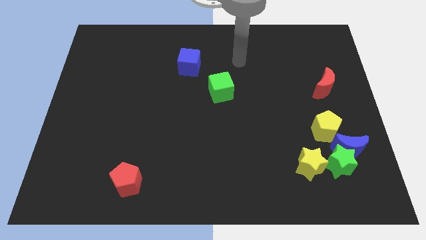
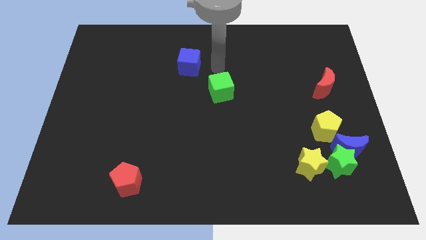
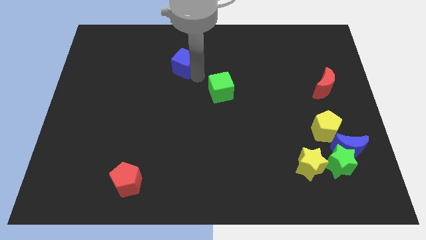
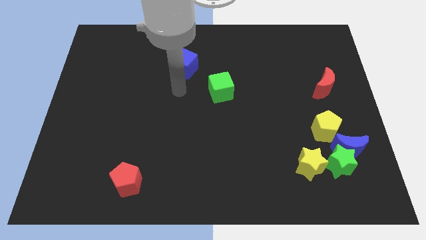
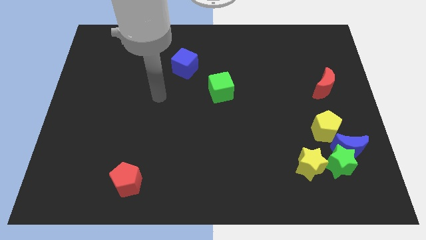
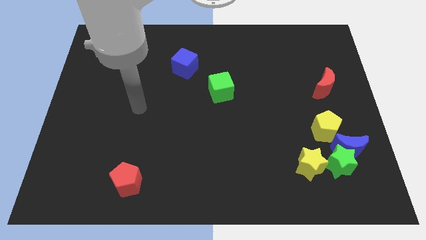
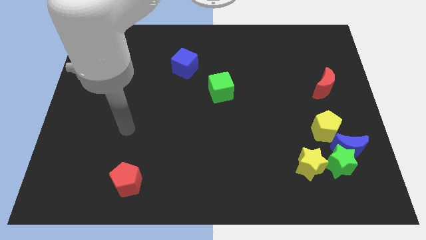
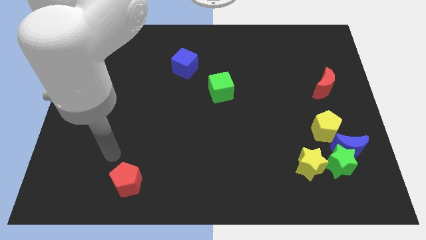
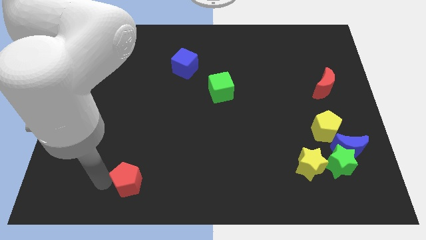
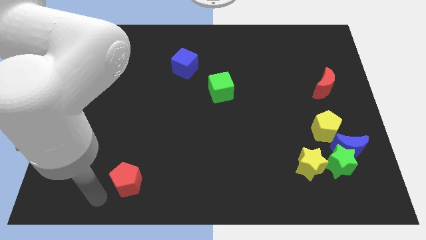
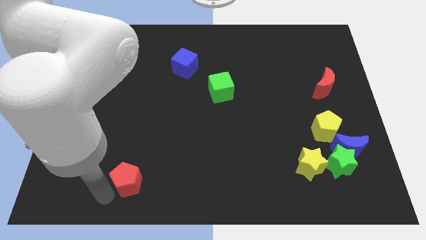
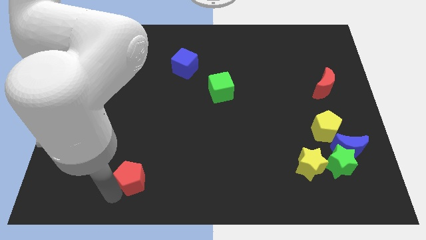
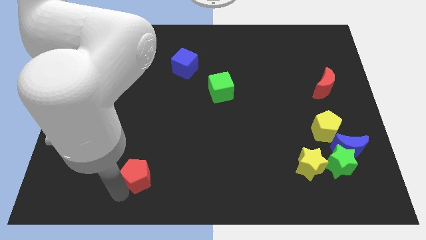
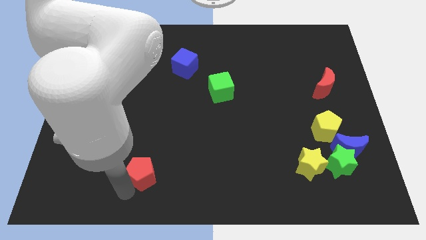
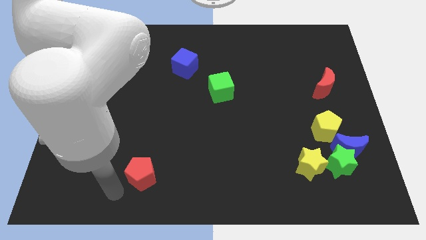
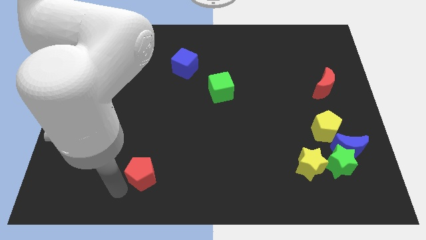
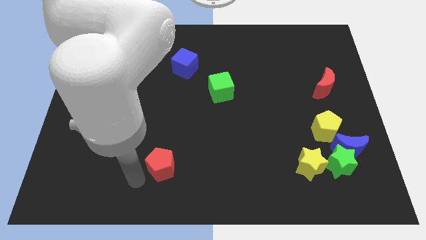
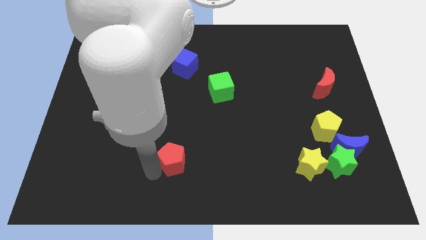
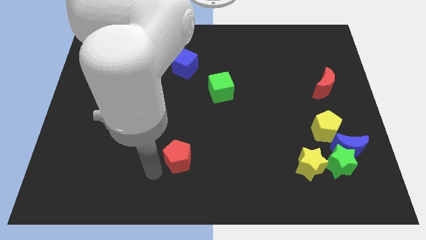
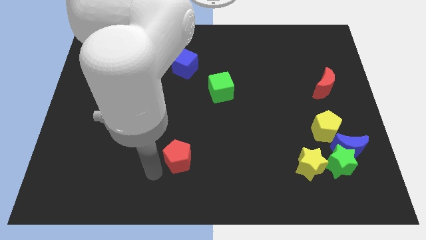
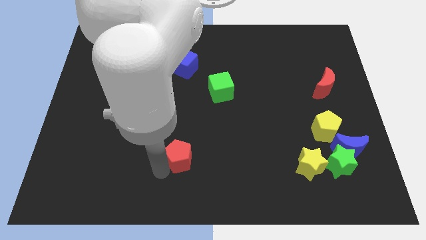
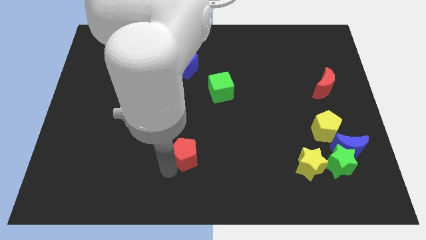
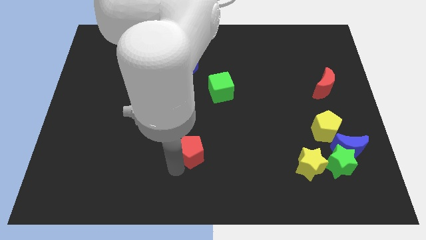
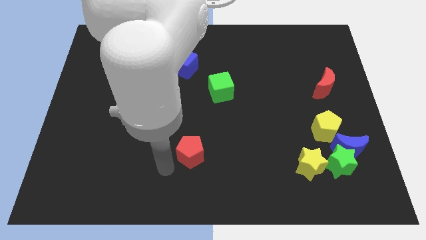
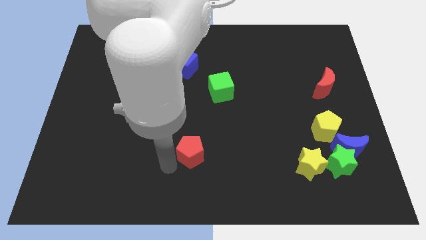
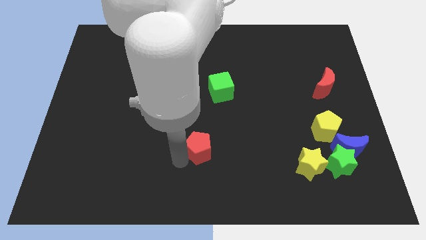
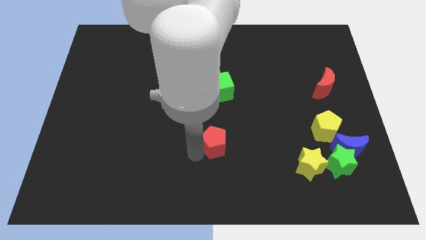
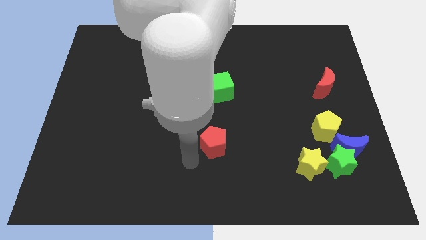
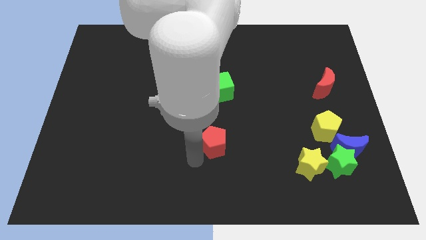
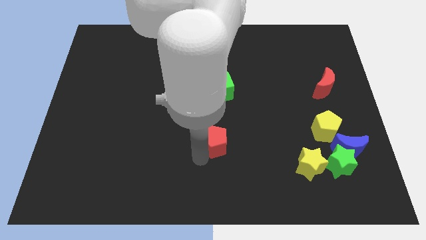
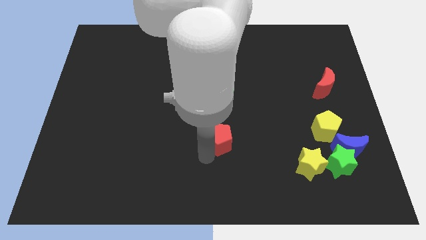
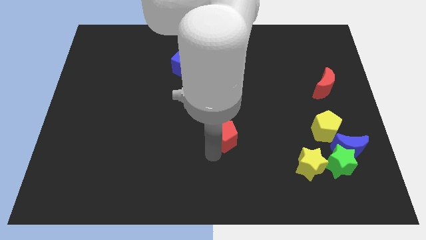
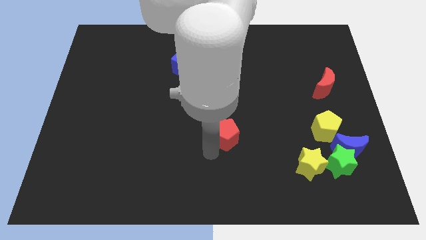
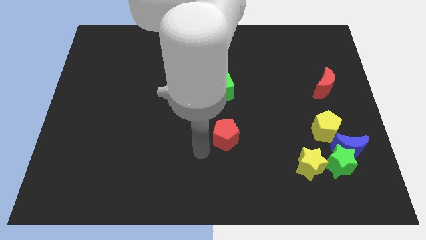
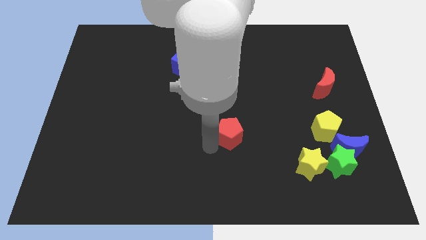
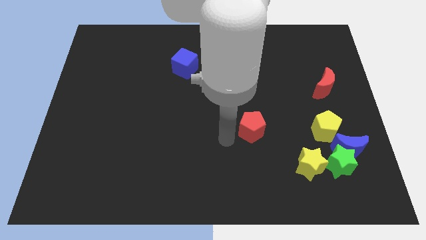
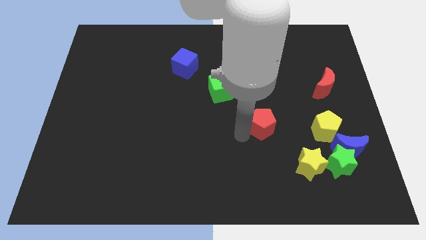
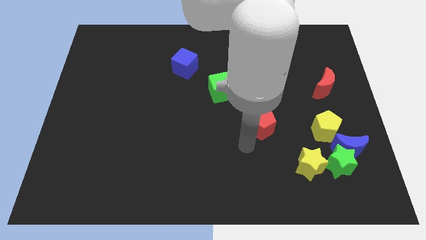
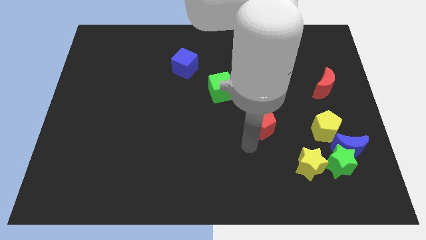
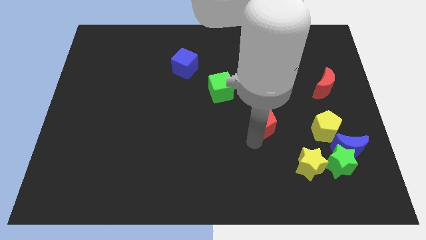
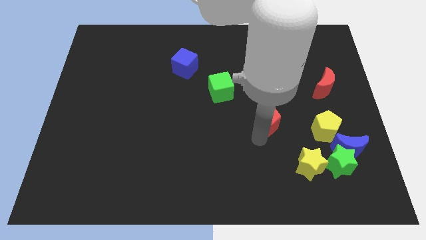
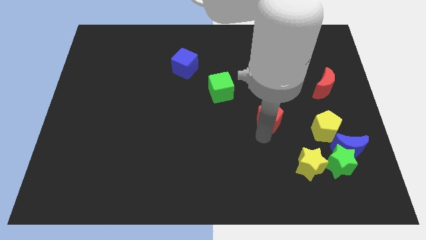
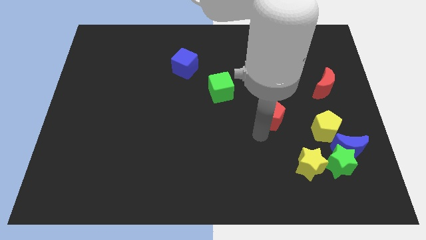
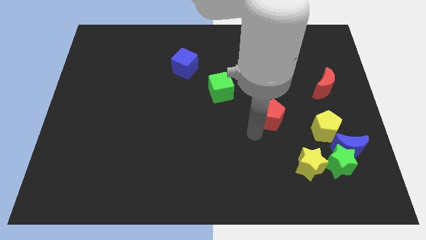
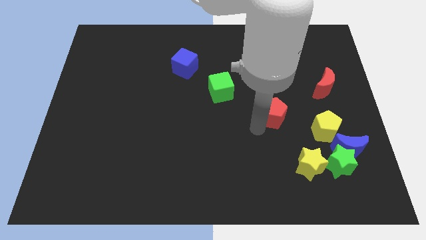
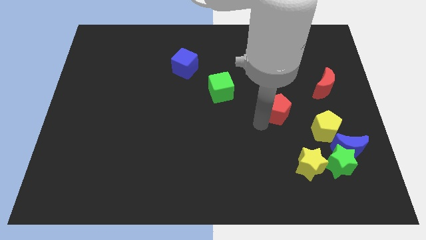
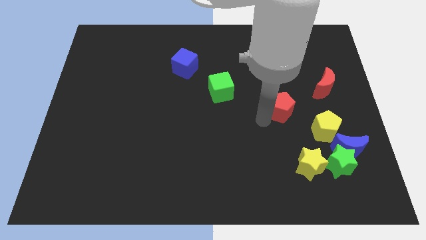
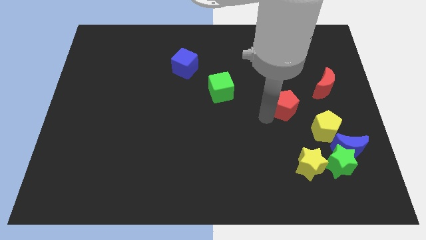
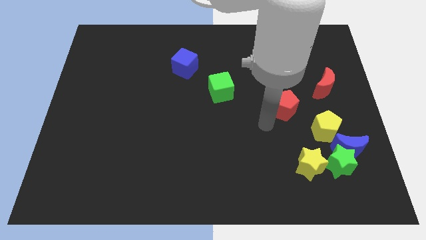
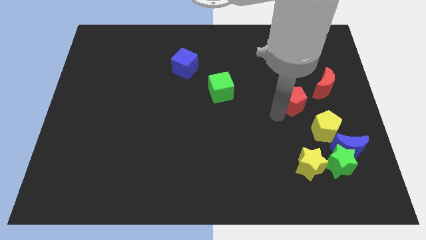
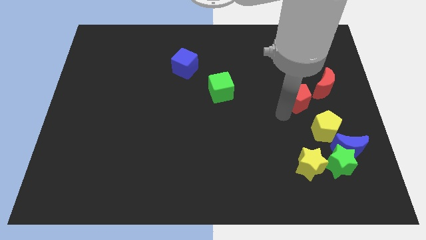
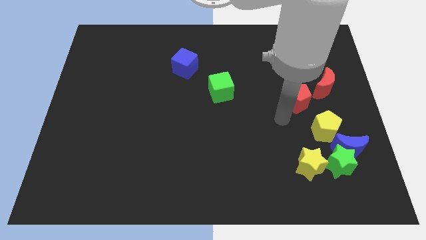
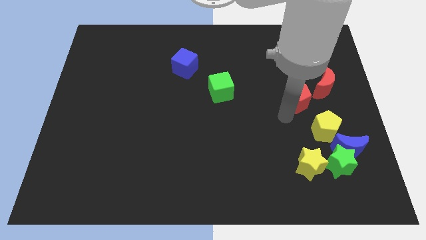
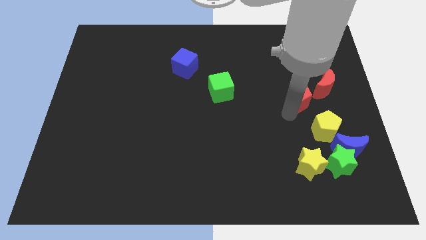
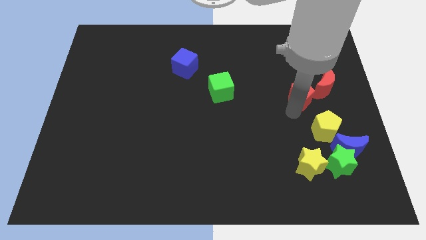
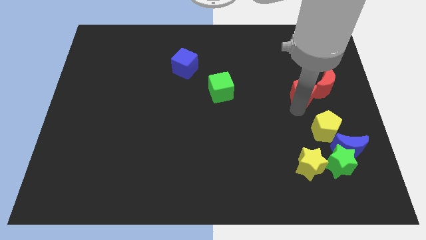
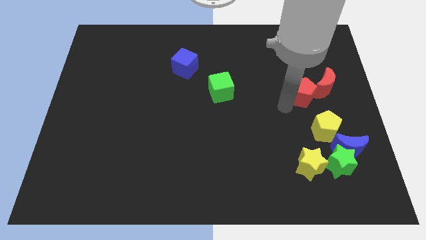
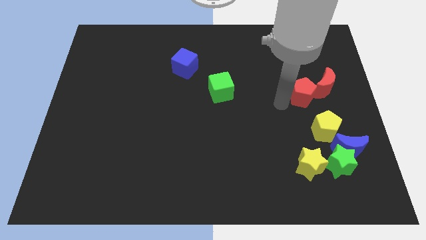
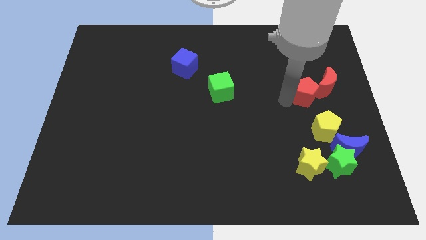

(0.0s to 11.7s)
slide the red pentagon towards the red moon

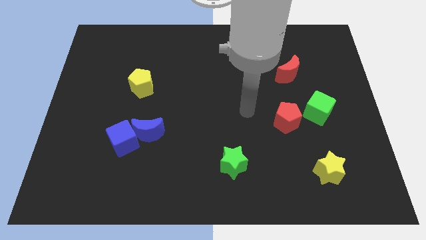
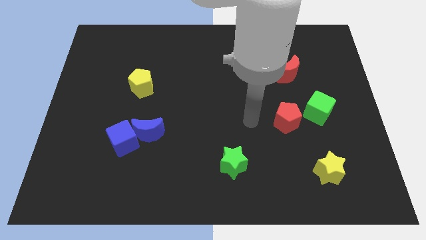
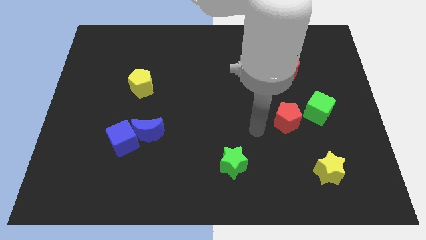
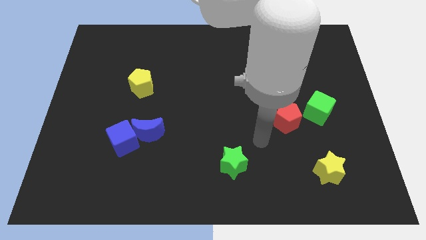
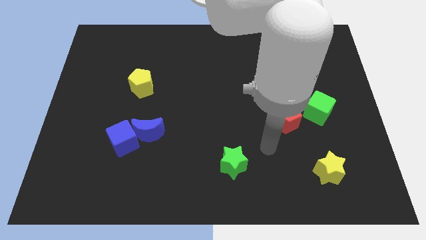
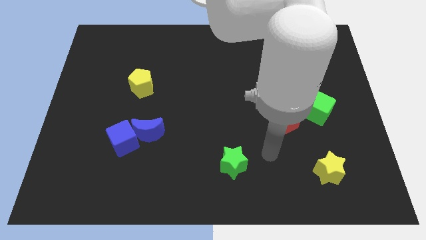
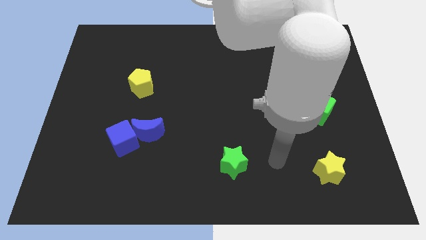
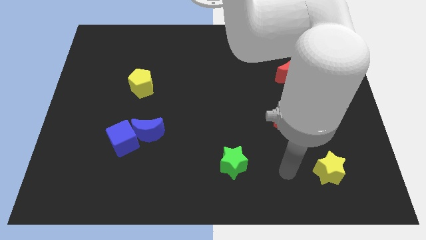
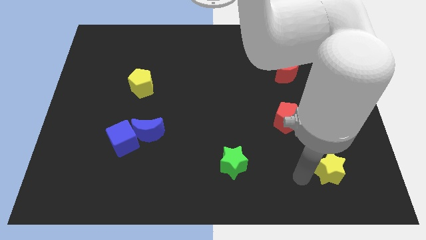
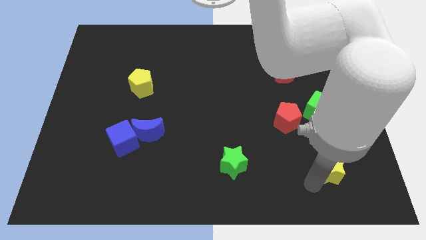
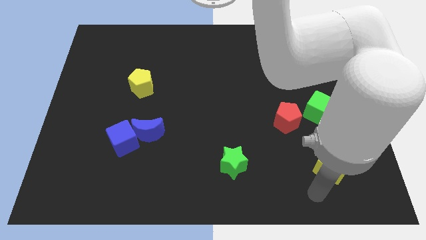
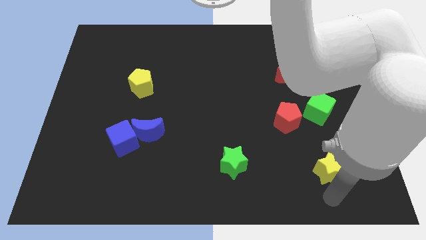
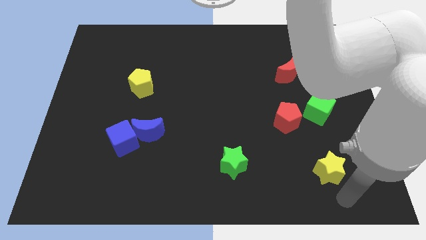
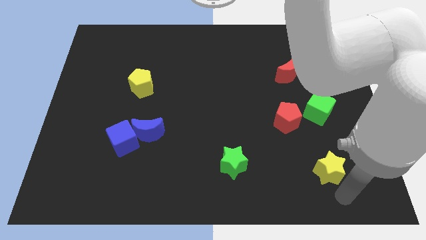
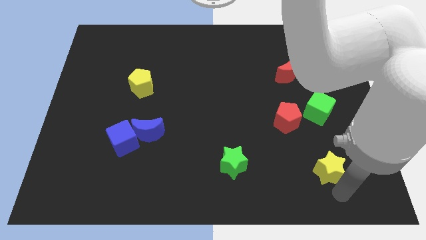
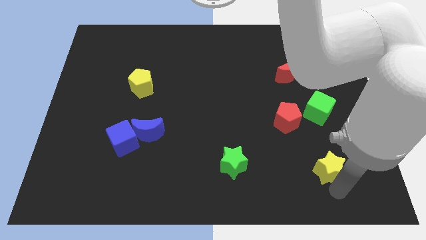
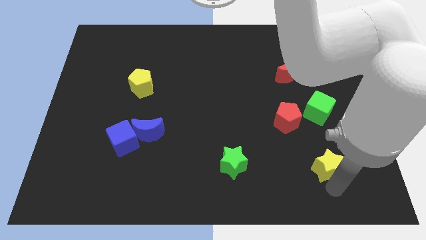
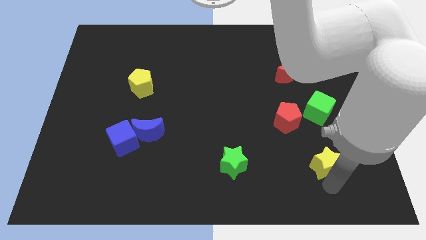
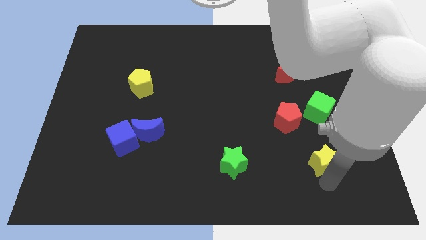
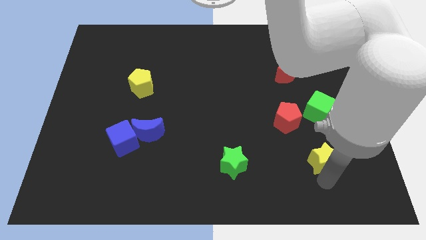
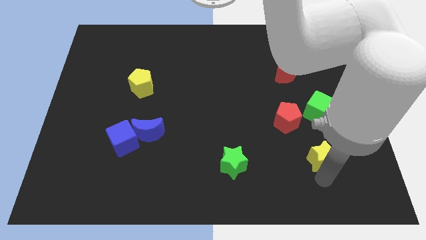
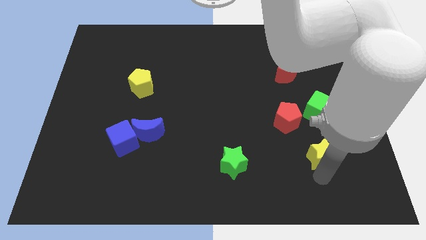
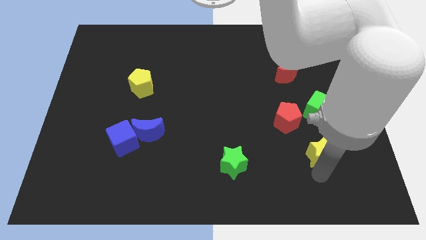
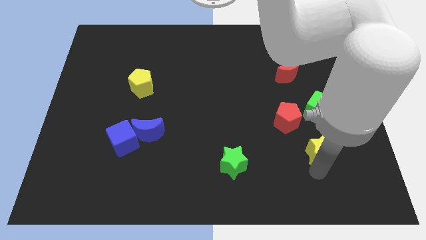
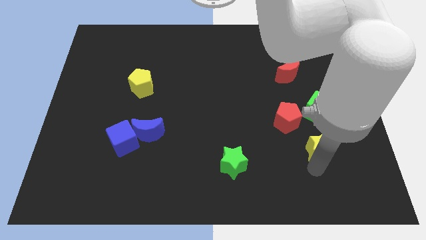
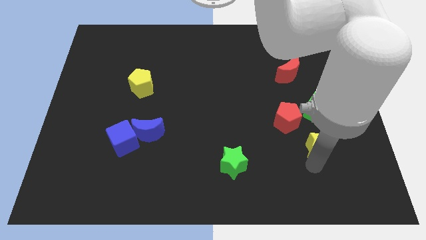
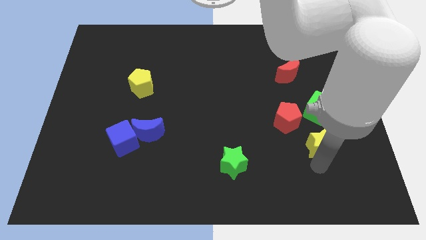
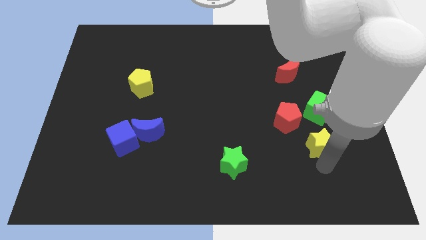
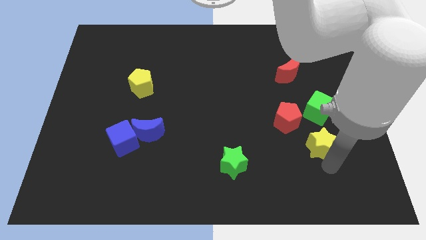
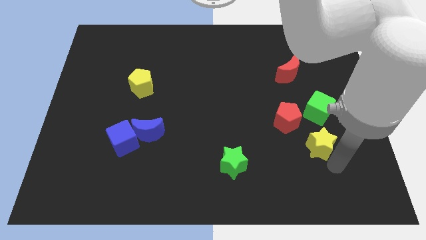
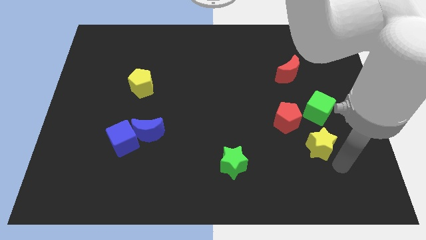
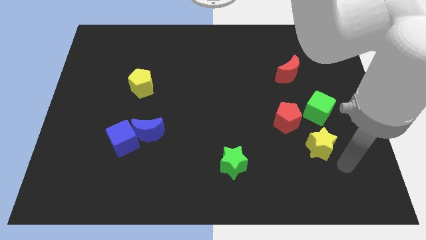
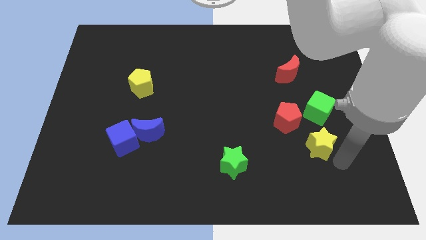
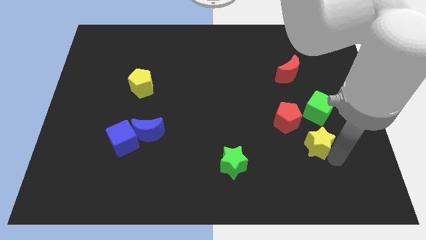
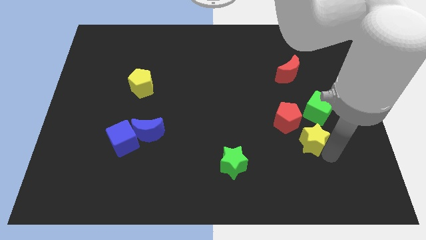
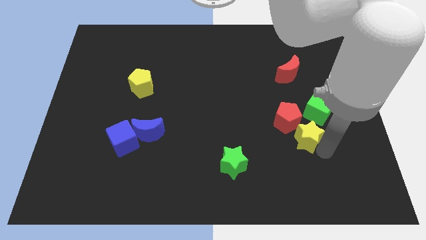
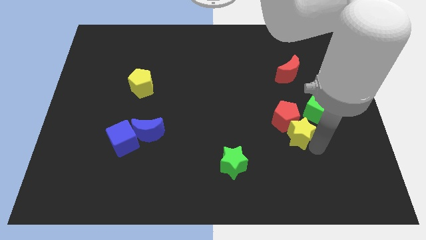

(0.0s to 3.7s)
slide the yellow star to the red pentagon
